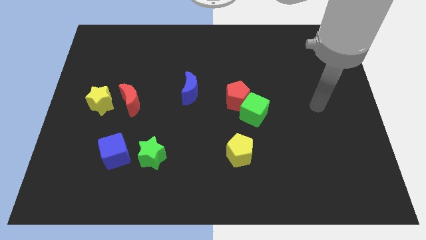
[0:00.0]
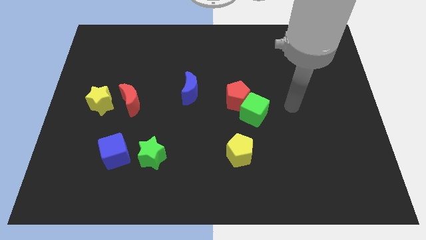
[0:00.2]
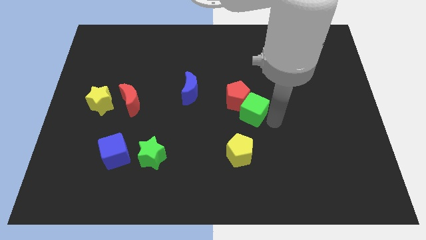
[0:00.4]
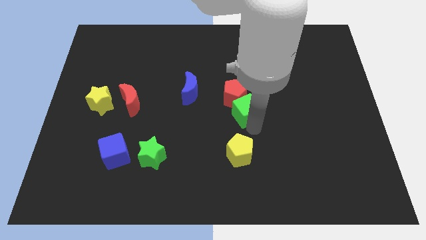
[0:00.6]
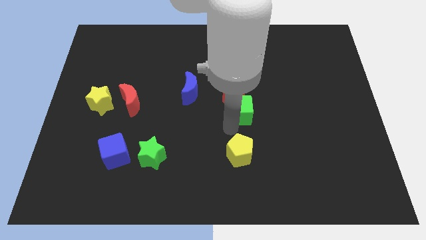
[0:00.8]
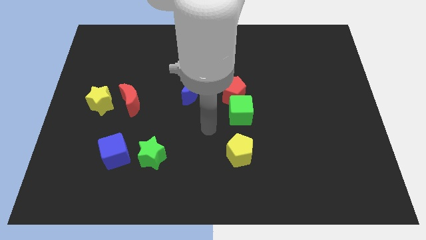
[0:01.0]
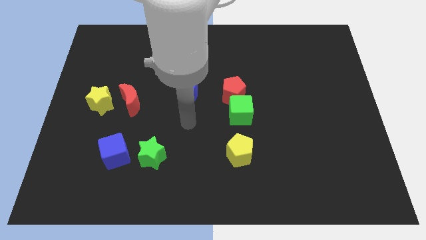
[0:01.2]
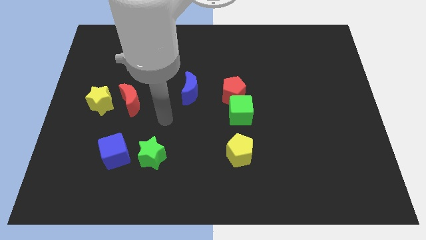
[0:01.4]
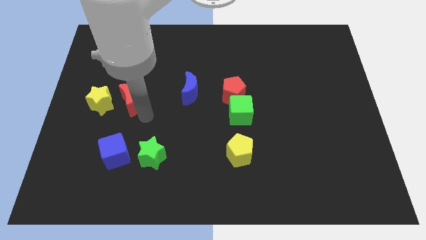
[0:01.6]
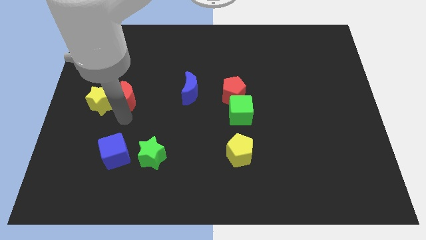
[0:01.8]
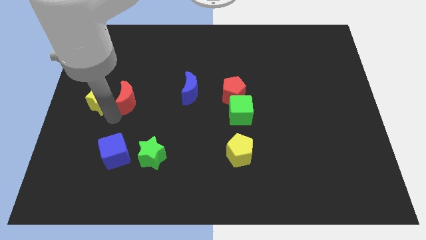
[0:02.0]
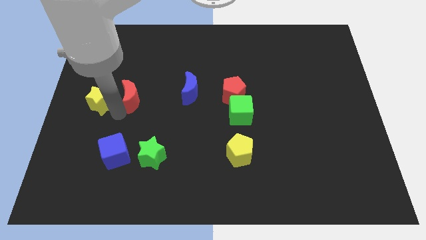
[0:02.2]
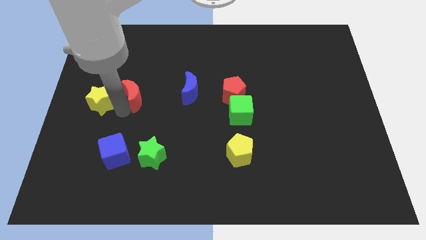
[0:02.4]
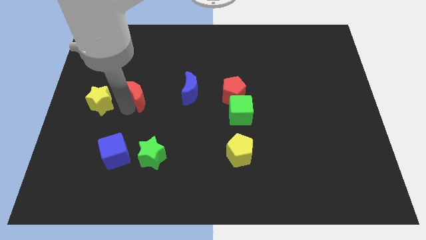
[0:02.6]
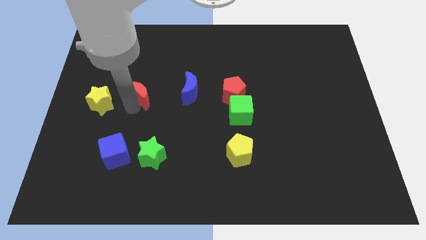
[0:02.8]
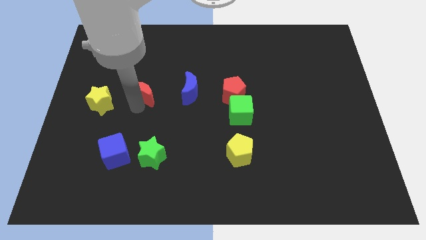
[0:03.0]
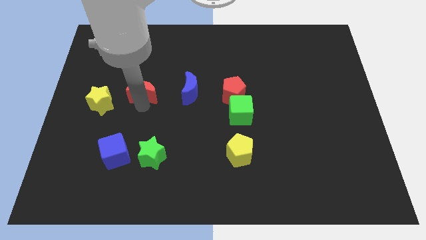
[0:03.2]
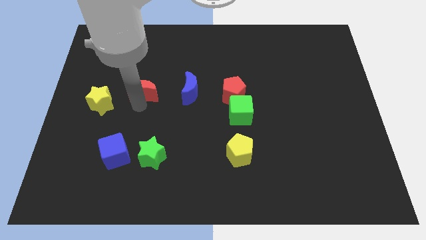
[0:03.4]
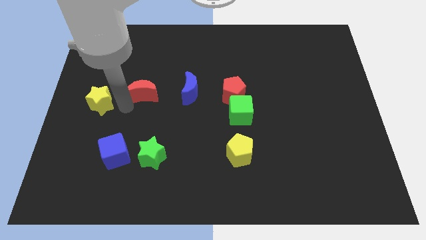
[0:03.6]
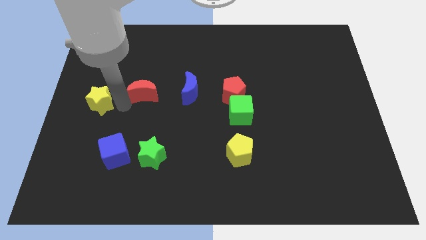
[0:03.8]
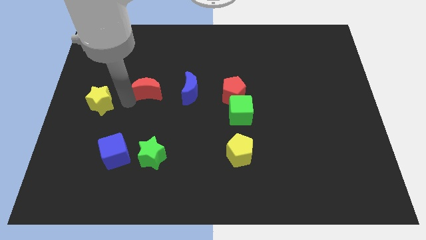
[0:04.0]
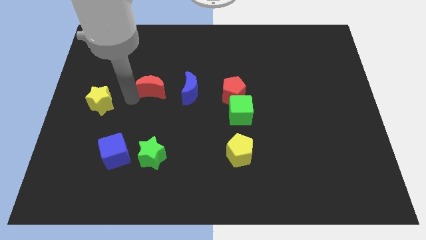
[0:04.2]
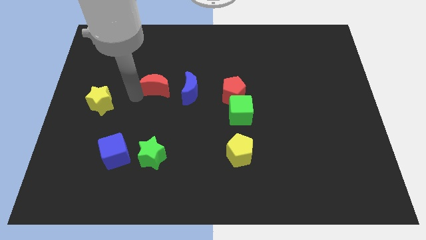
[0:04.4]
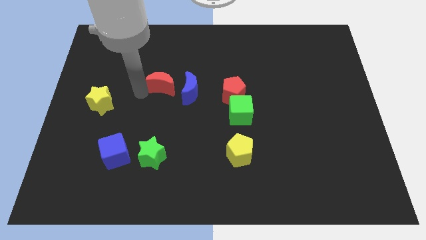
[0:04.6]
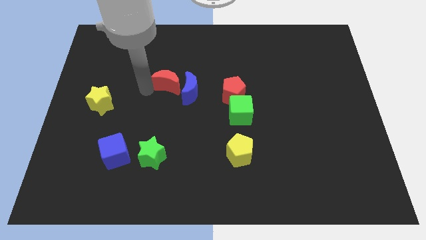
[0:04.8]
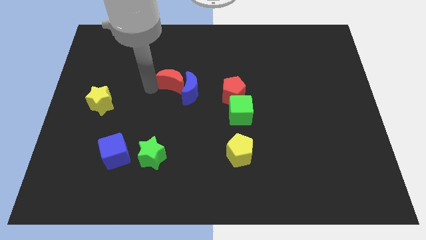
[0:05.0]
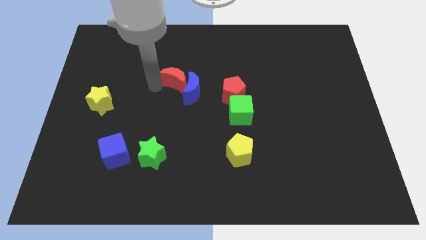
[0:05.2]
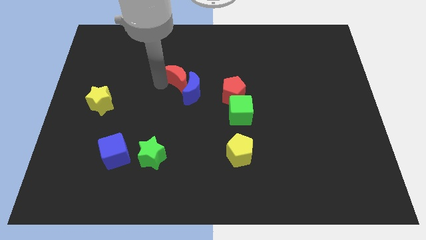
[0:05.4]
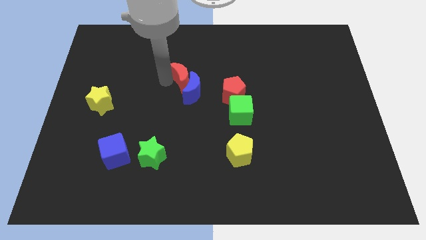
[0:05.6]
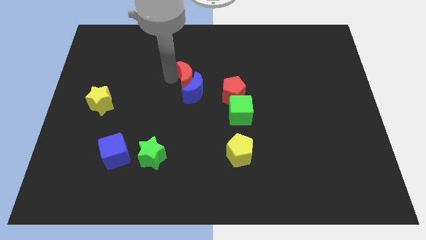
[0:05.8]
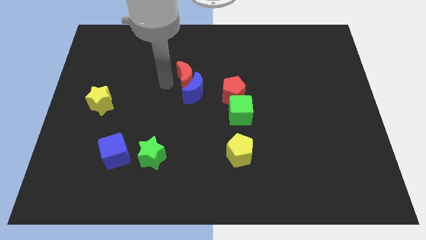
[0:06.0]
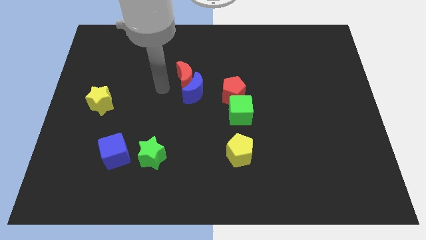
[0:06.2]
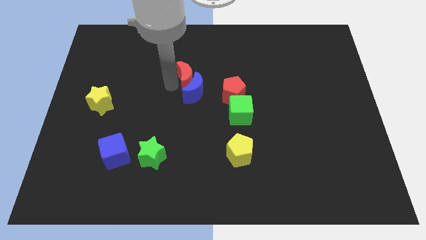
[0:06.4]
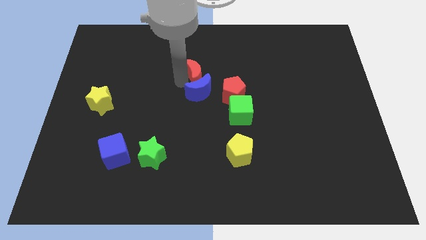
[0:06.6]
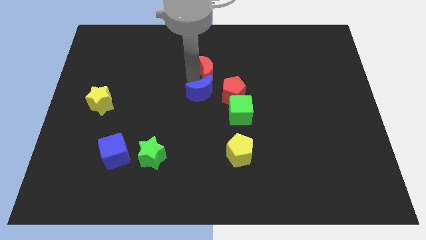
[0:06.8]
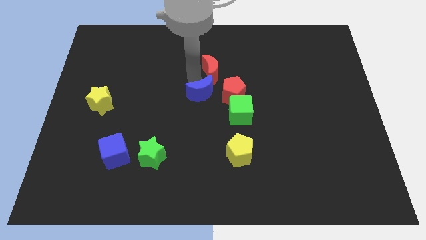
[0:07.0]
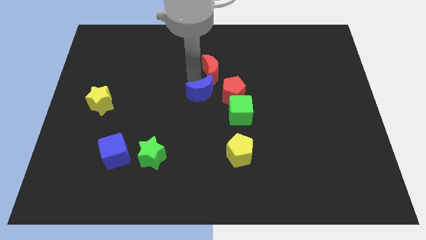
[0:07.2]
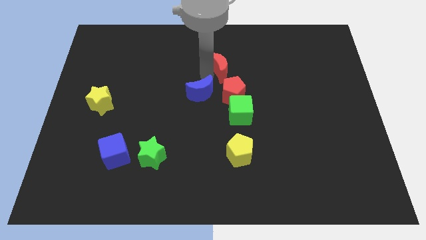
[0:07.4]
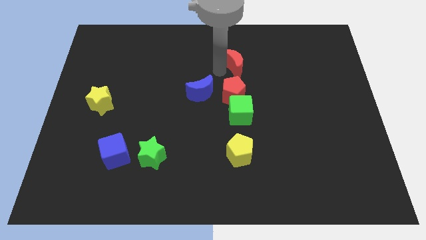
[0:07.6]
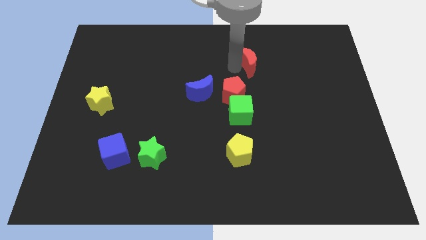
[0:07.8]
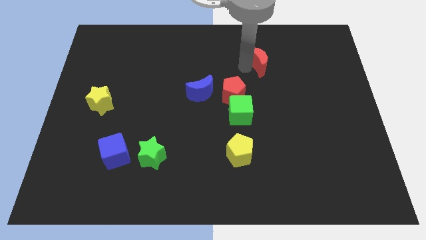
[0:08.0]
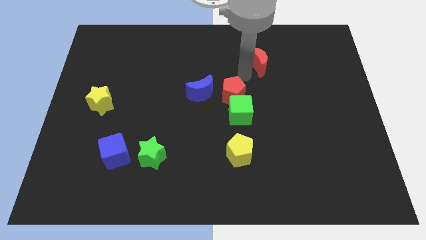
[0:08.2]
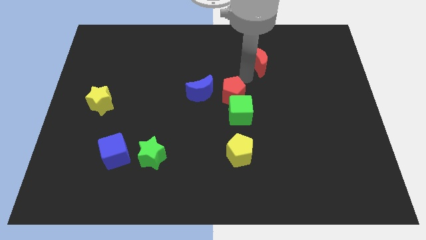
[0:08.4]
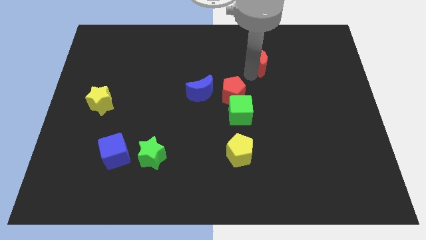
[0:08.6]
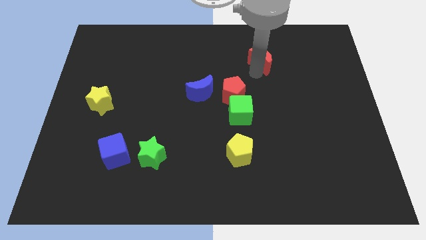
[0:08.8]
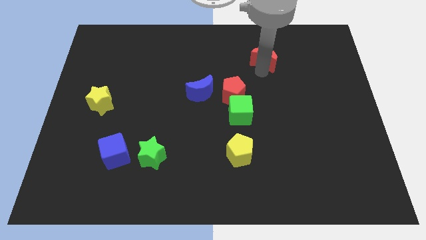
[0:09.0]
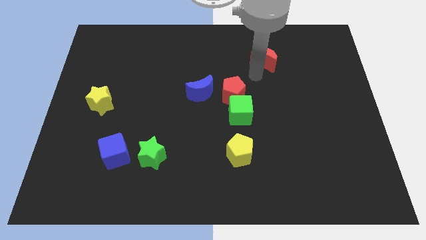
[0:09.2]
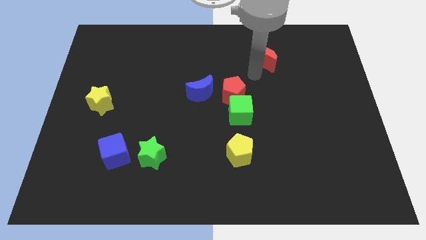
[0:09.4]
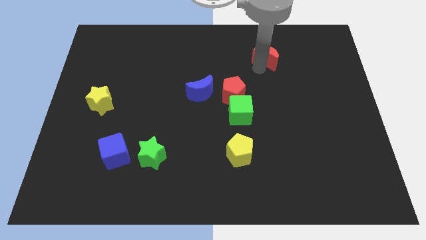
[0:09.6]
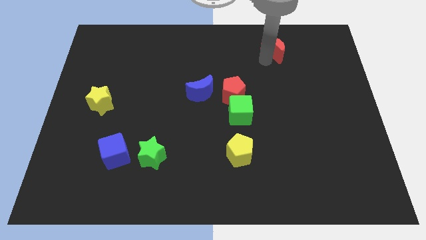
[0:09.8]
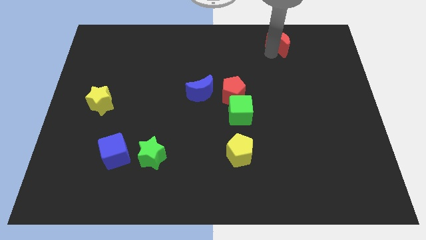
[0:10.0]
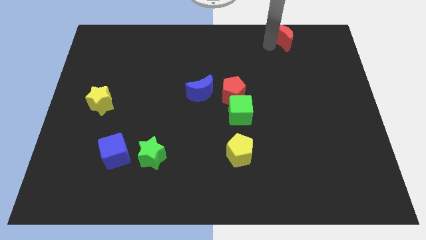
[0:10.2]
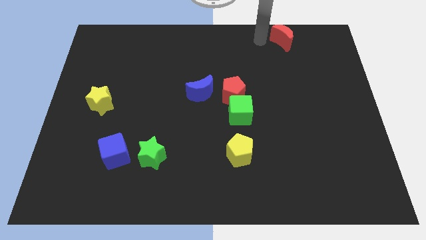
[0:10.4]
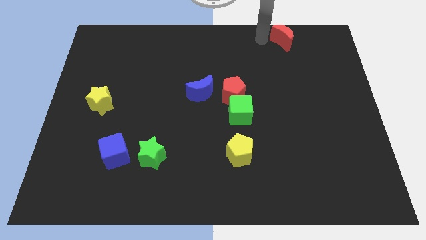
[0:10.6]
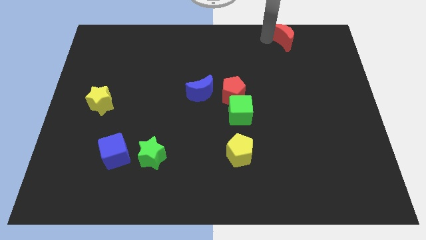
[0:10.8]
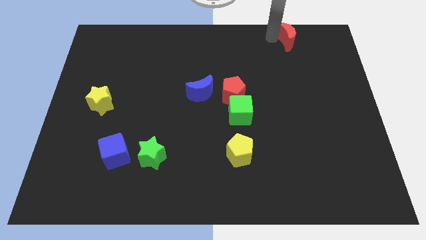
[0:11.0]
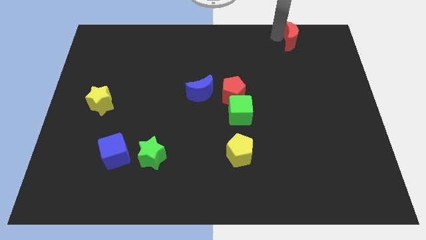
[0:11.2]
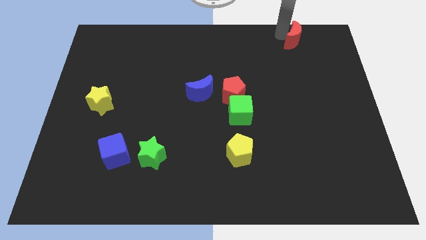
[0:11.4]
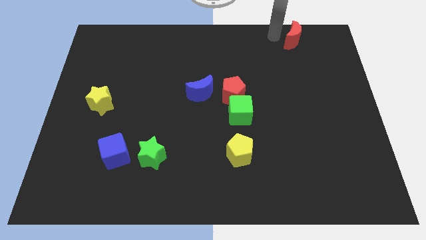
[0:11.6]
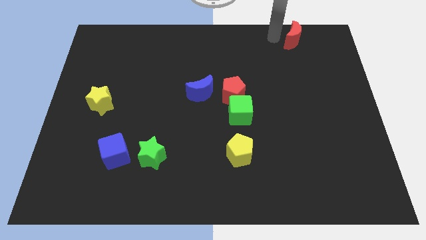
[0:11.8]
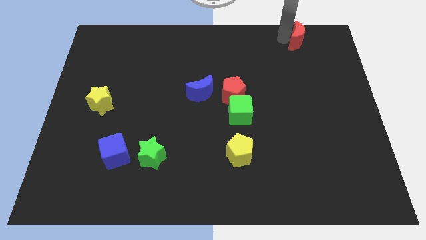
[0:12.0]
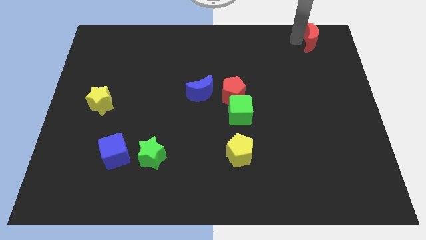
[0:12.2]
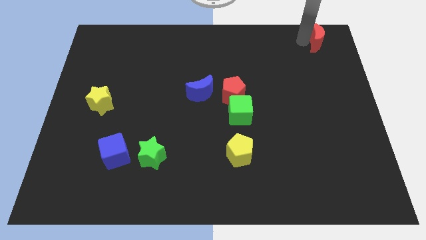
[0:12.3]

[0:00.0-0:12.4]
slide the red moon to the top right corner
